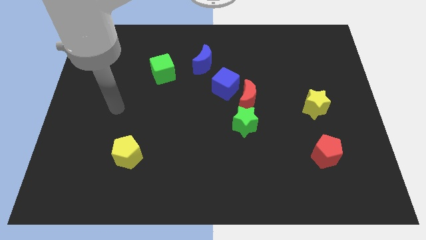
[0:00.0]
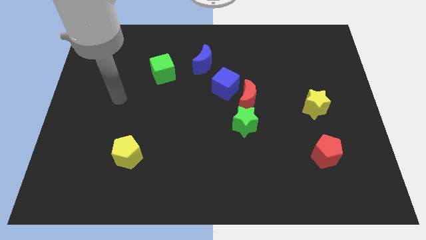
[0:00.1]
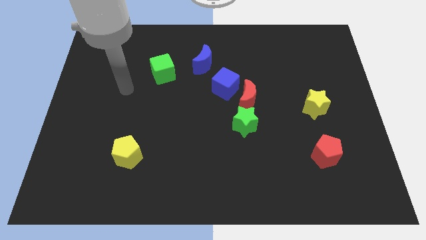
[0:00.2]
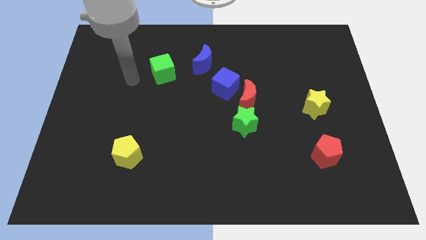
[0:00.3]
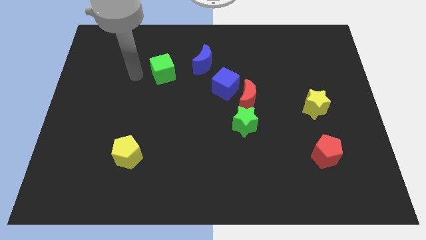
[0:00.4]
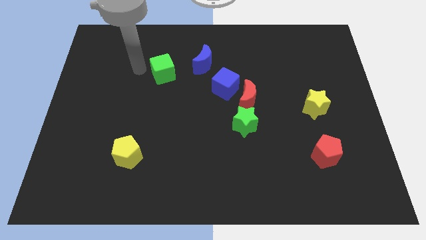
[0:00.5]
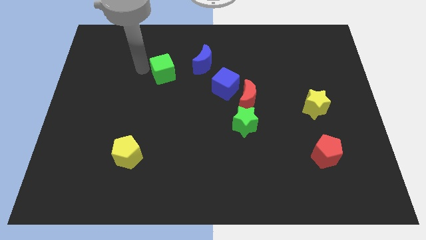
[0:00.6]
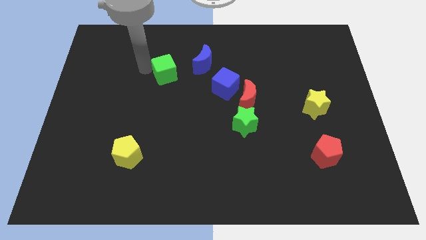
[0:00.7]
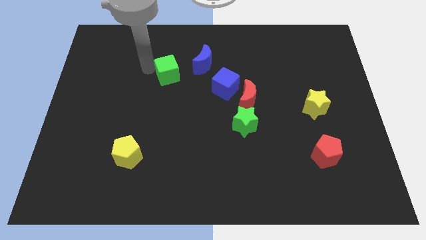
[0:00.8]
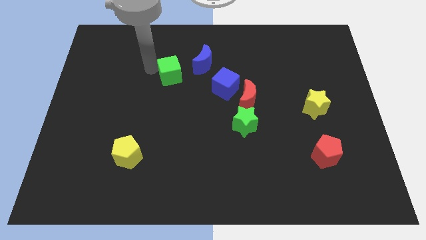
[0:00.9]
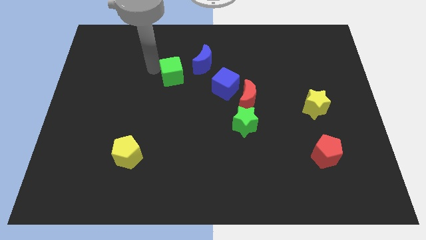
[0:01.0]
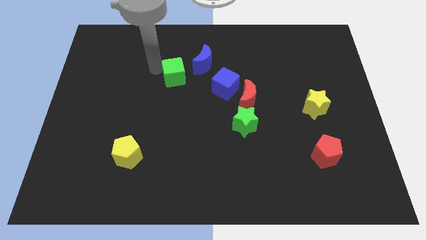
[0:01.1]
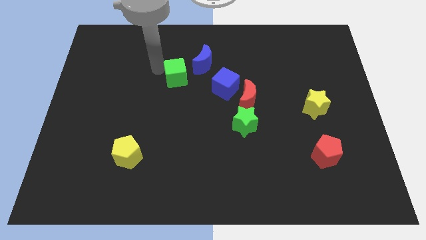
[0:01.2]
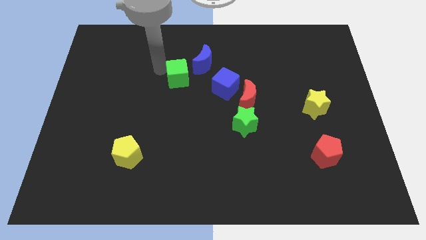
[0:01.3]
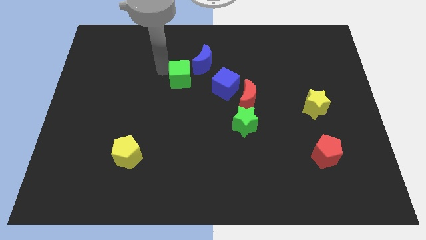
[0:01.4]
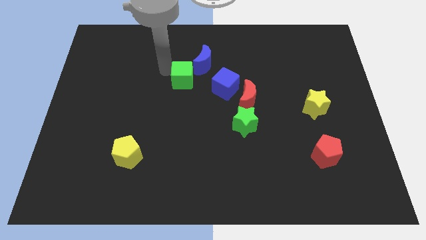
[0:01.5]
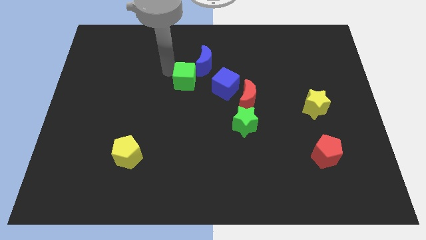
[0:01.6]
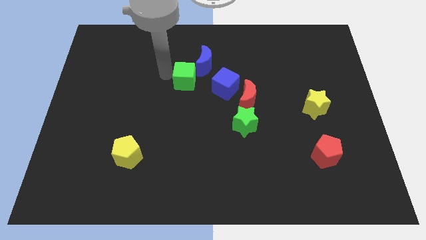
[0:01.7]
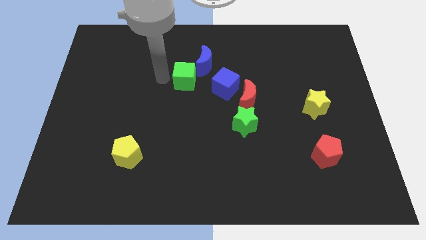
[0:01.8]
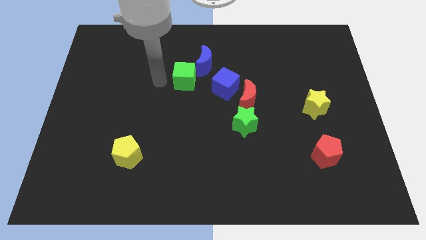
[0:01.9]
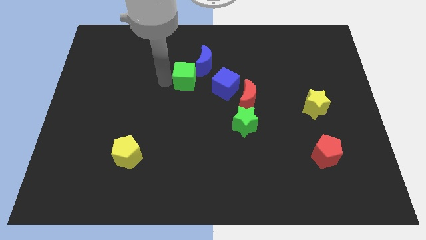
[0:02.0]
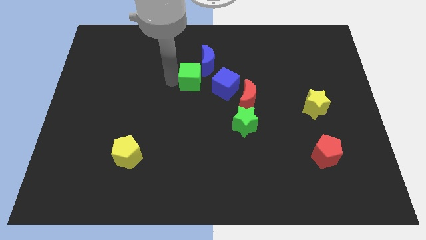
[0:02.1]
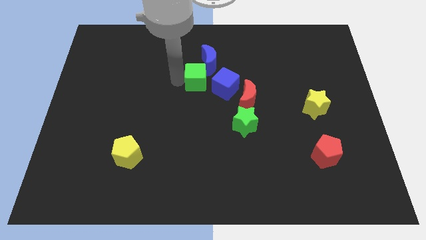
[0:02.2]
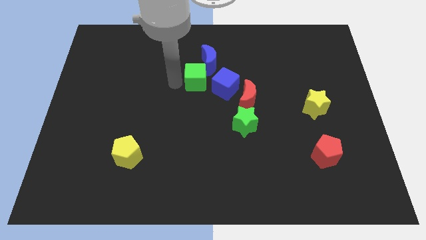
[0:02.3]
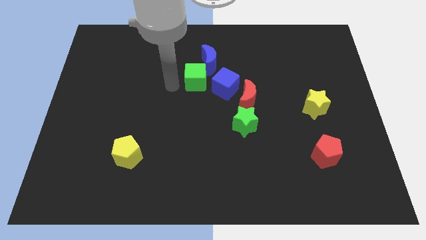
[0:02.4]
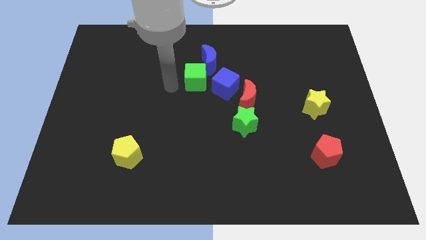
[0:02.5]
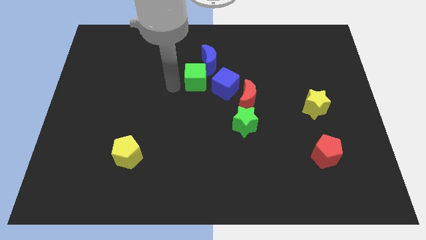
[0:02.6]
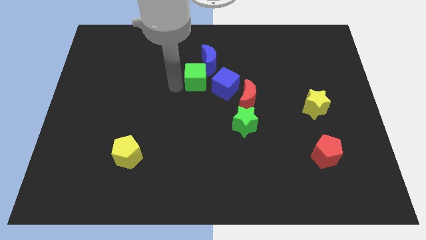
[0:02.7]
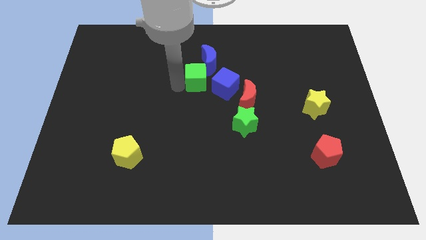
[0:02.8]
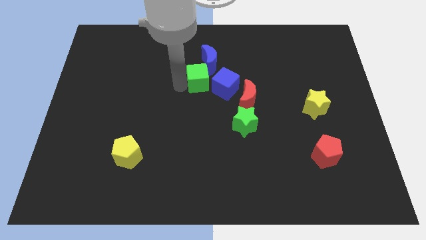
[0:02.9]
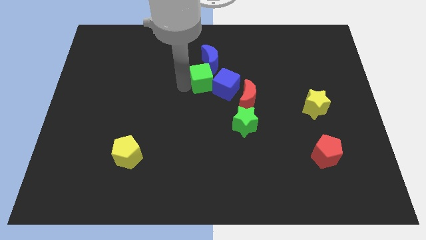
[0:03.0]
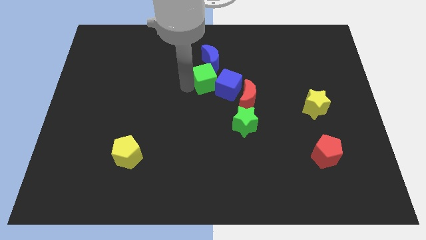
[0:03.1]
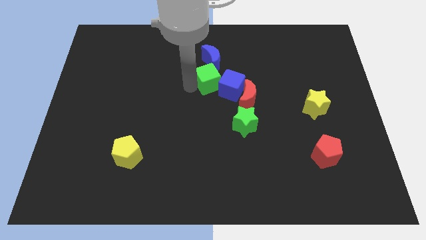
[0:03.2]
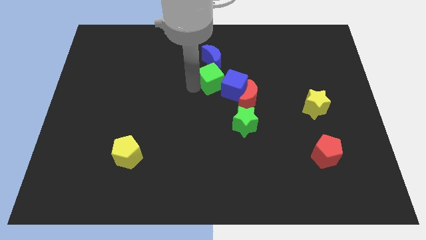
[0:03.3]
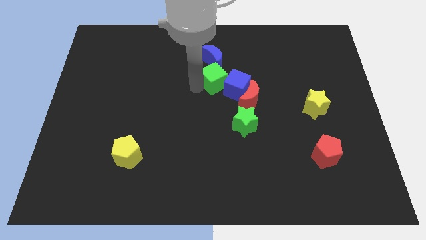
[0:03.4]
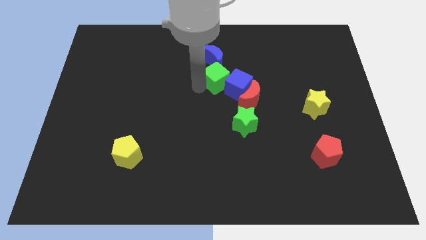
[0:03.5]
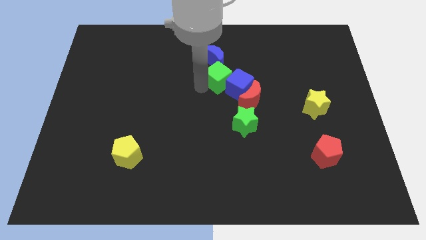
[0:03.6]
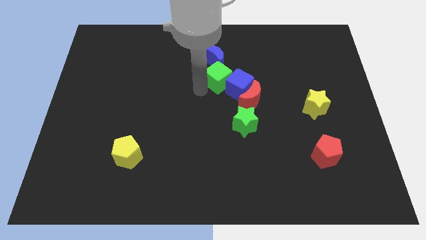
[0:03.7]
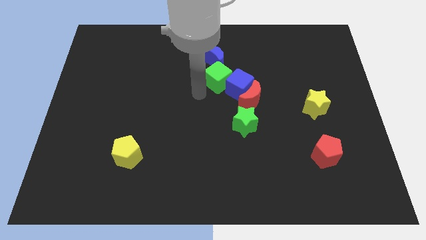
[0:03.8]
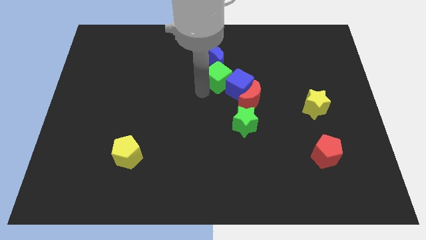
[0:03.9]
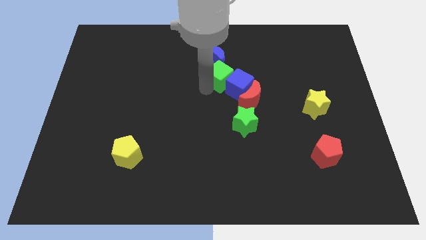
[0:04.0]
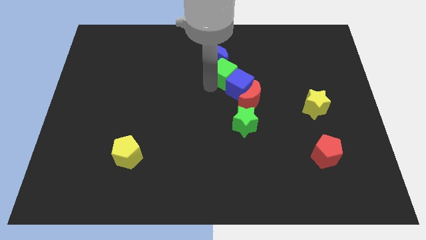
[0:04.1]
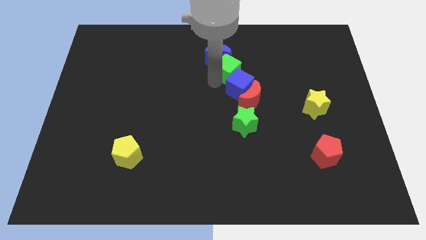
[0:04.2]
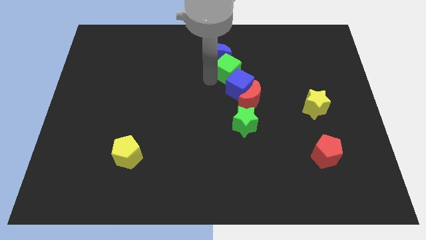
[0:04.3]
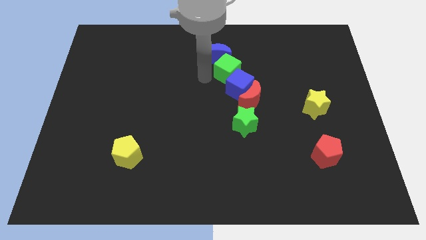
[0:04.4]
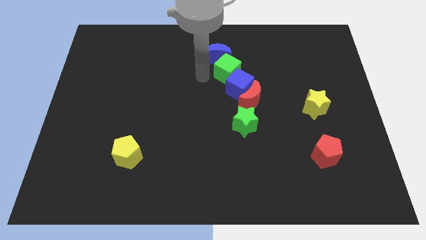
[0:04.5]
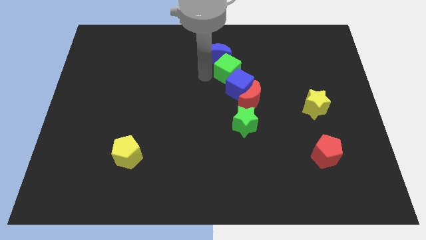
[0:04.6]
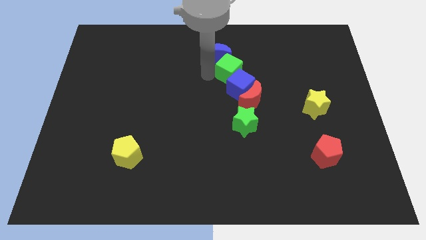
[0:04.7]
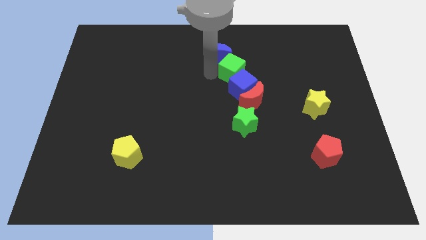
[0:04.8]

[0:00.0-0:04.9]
put the green cube to the top side of the red moon

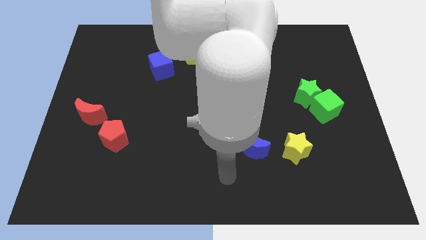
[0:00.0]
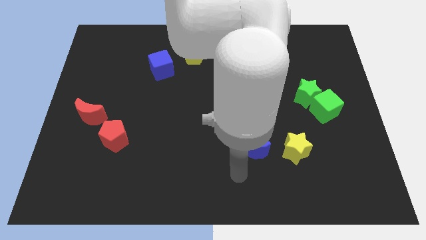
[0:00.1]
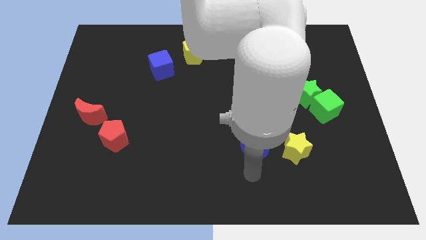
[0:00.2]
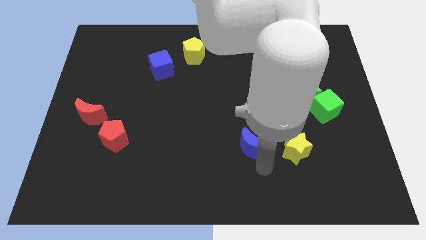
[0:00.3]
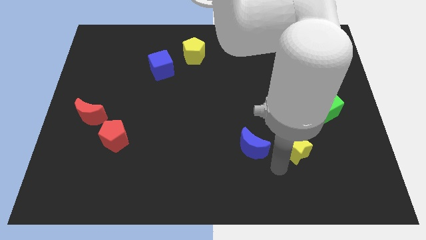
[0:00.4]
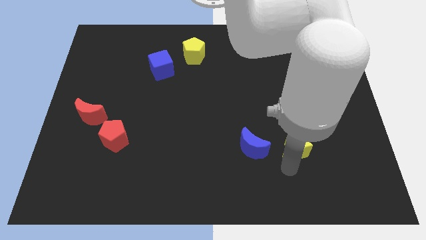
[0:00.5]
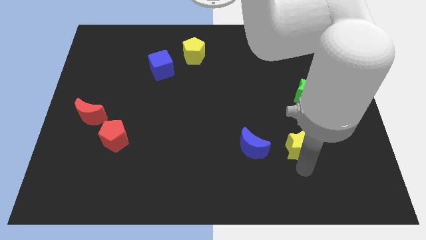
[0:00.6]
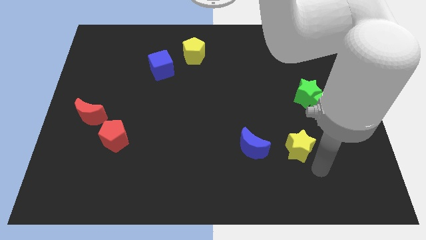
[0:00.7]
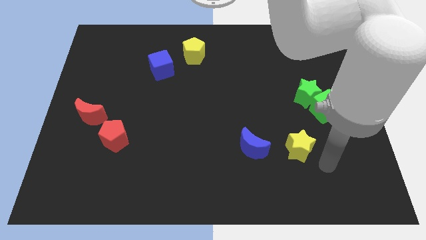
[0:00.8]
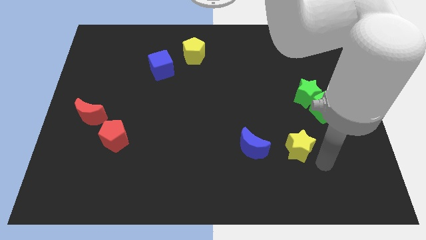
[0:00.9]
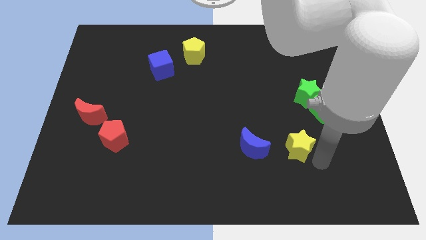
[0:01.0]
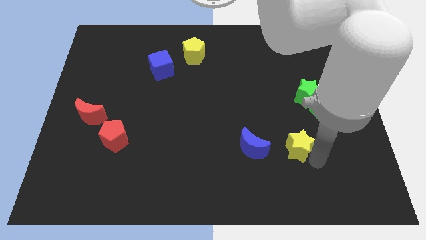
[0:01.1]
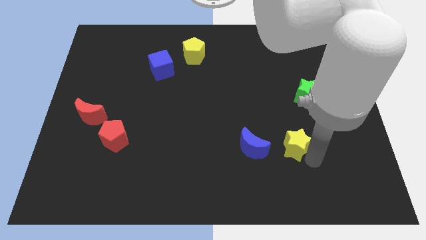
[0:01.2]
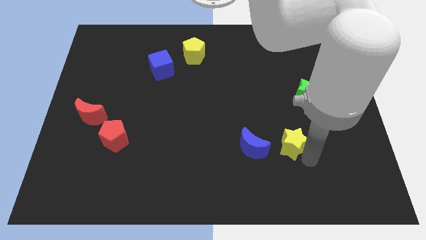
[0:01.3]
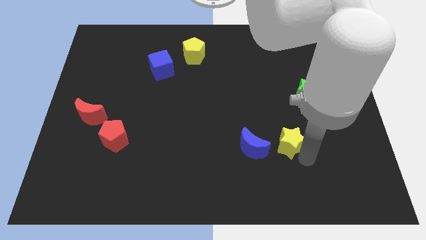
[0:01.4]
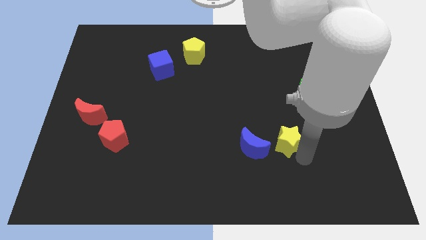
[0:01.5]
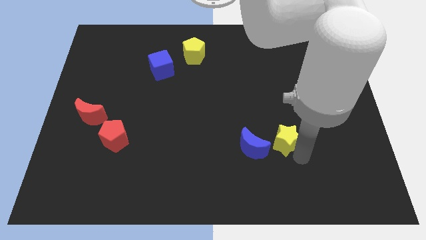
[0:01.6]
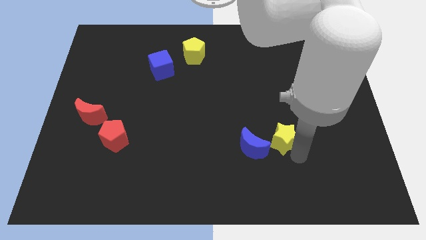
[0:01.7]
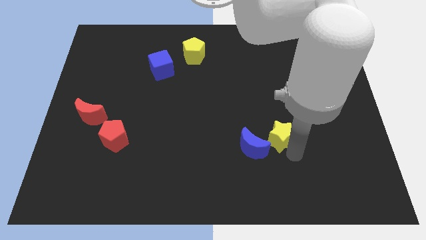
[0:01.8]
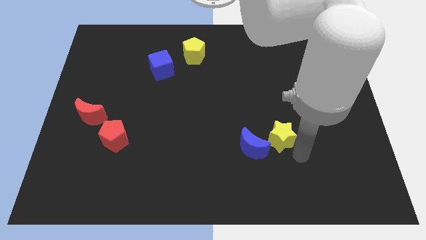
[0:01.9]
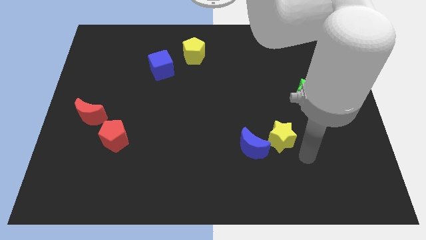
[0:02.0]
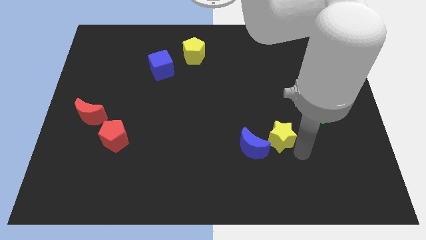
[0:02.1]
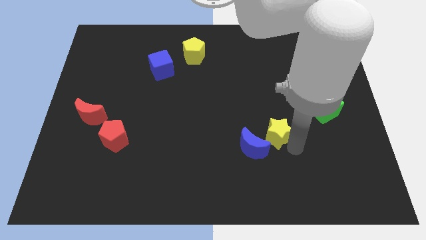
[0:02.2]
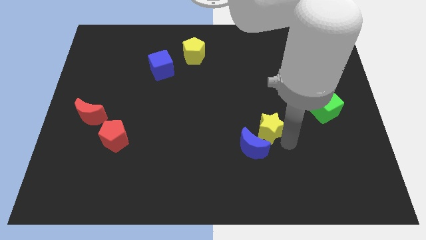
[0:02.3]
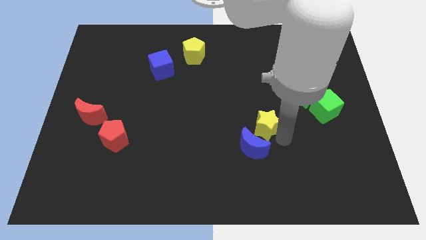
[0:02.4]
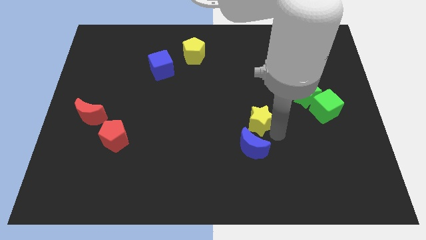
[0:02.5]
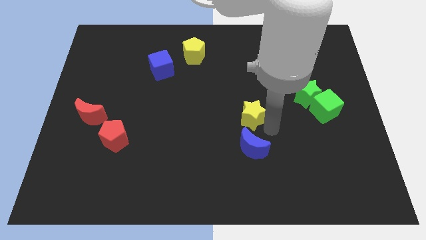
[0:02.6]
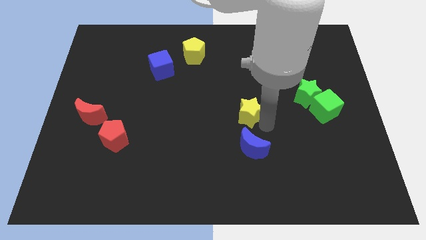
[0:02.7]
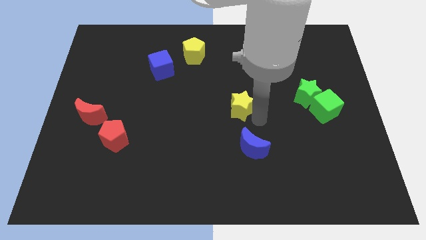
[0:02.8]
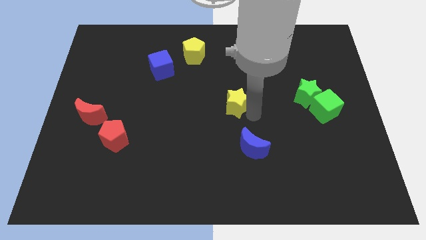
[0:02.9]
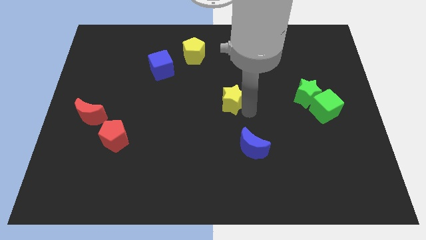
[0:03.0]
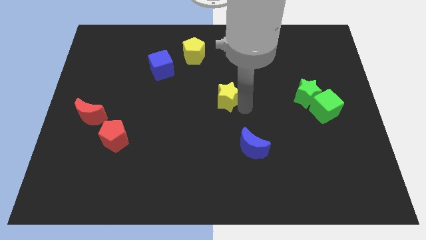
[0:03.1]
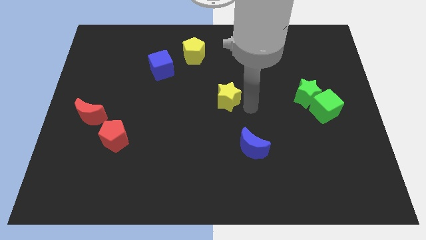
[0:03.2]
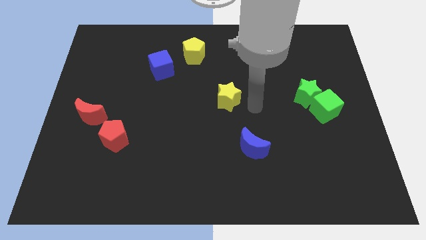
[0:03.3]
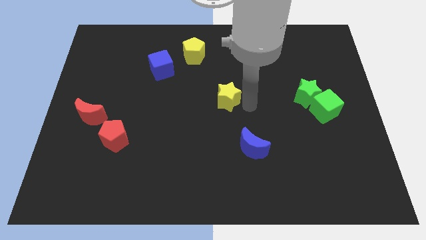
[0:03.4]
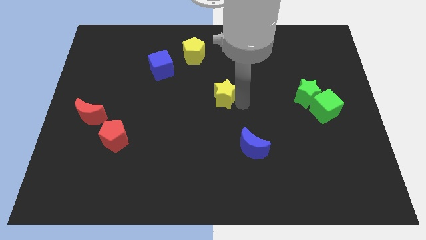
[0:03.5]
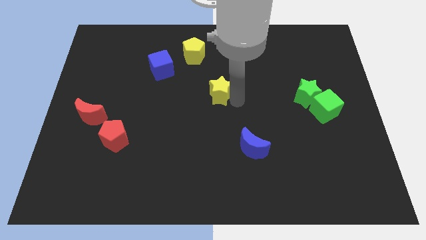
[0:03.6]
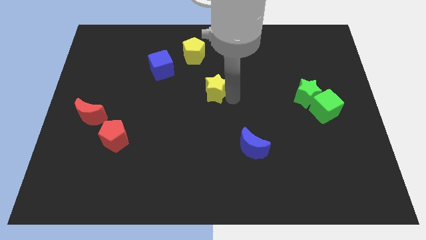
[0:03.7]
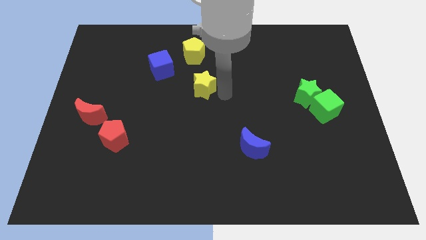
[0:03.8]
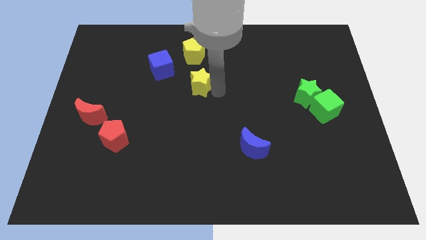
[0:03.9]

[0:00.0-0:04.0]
put the yellow star to the bottom right side of the blue cube
